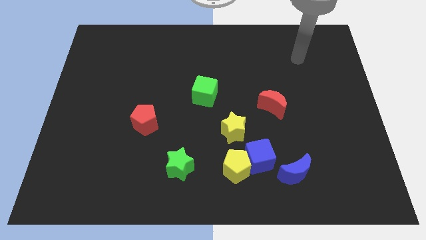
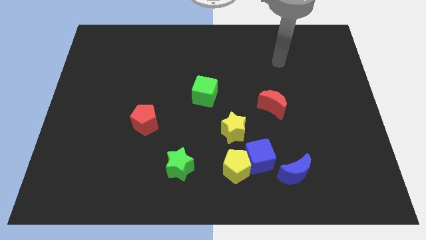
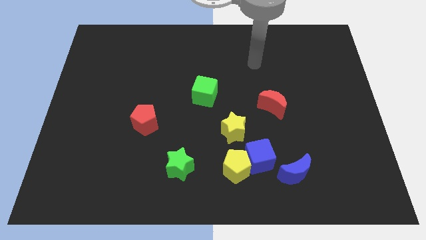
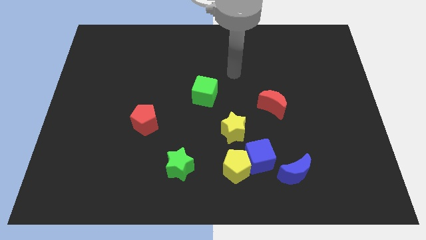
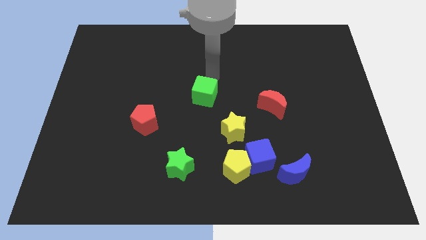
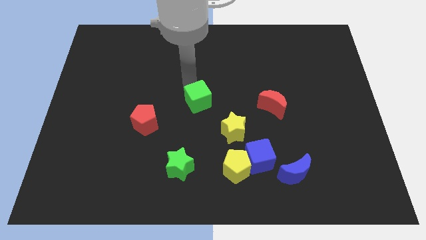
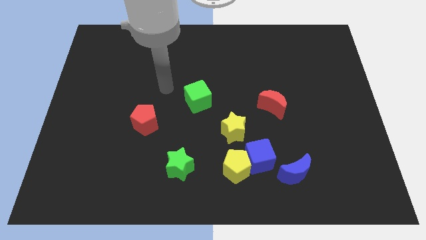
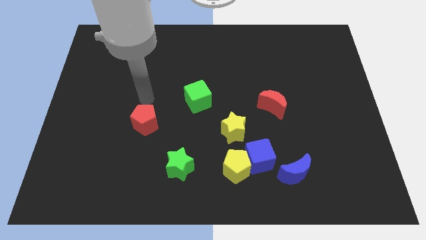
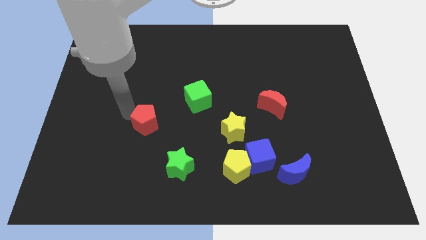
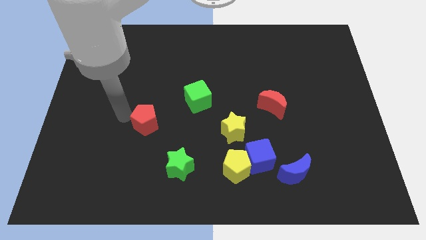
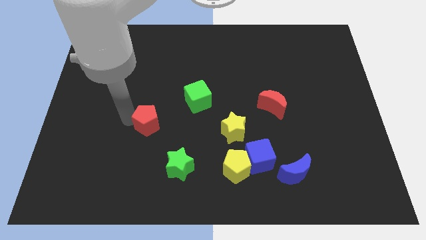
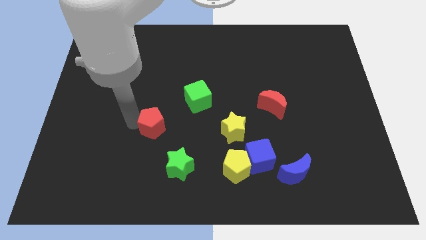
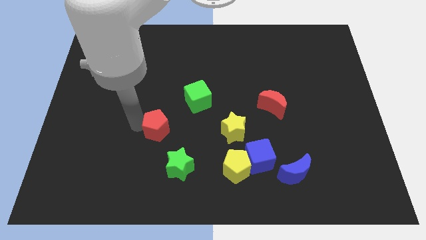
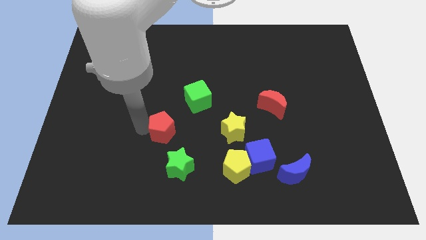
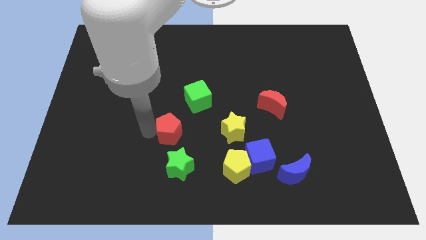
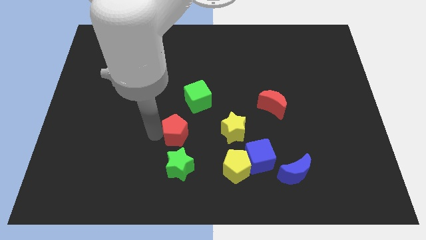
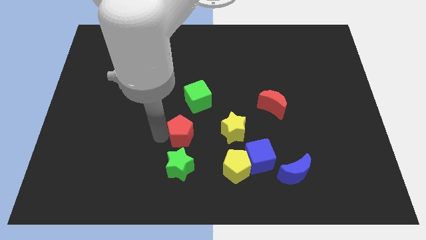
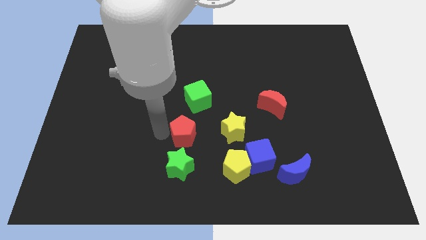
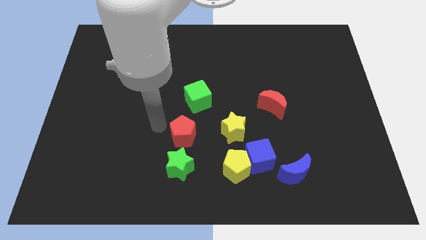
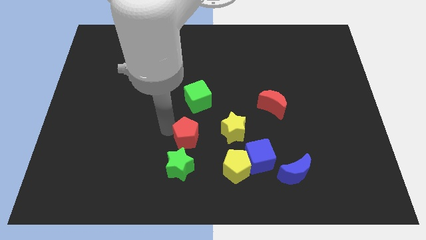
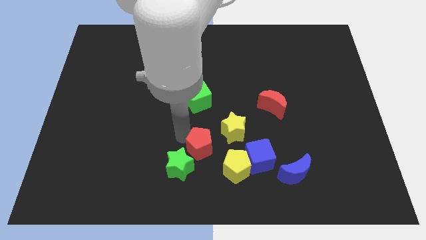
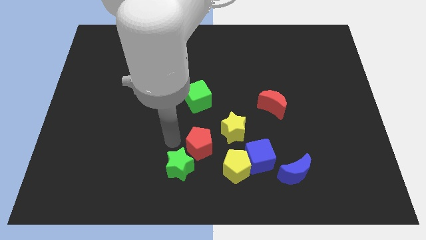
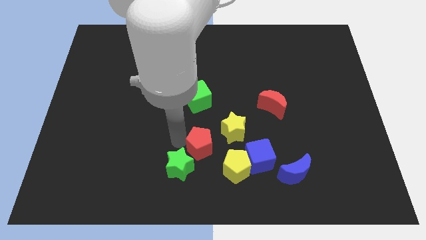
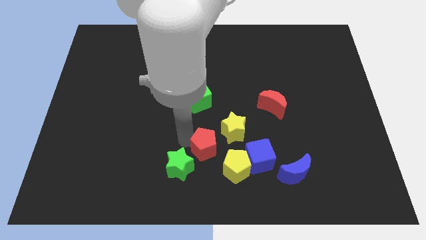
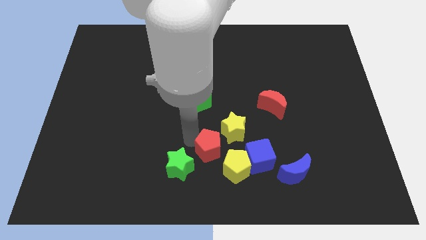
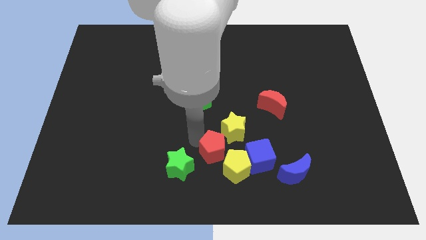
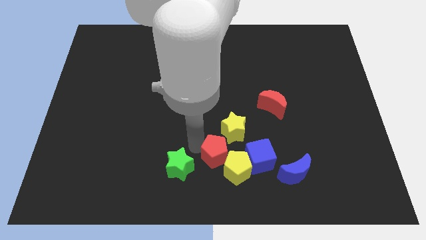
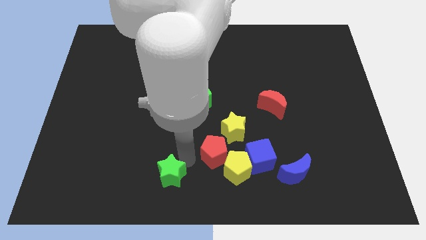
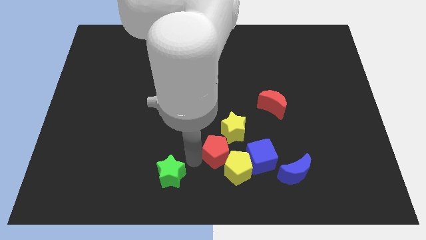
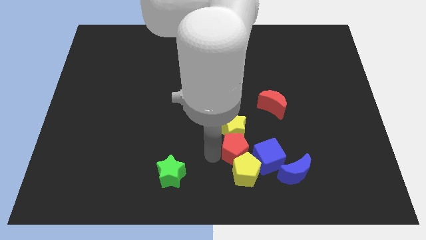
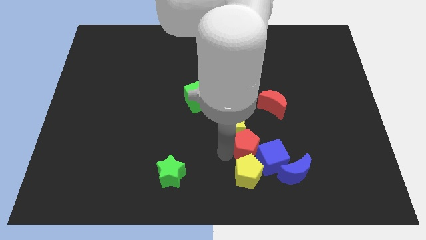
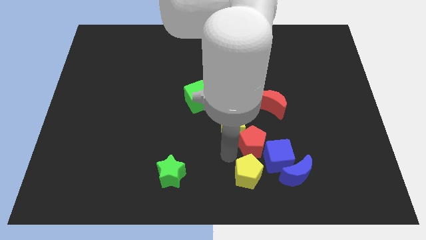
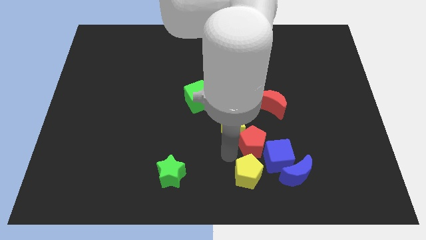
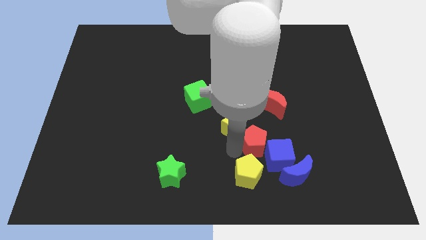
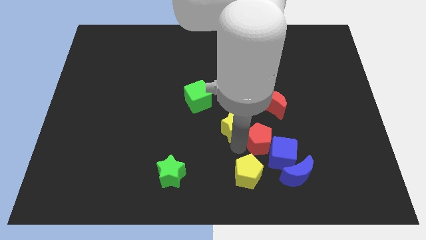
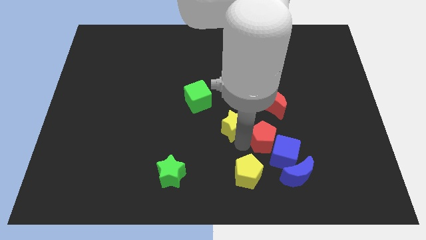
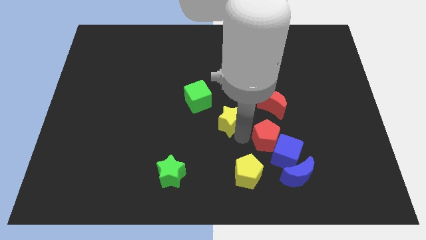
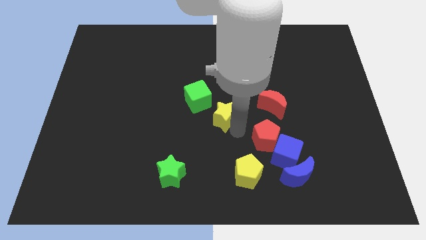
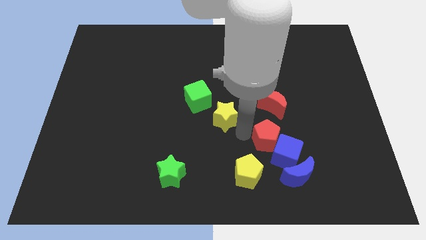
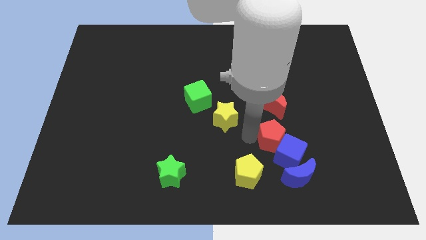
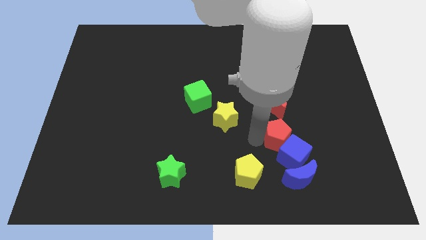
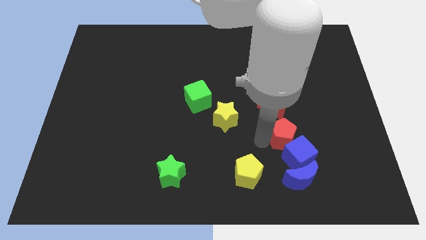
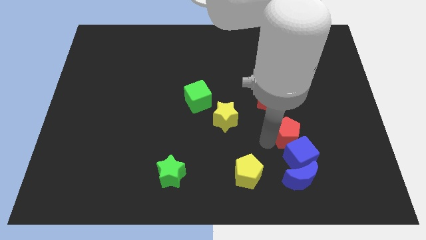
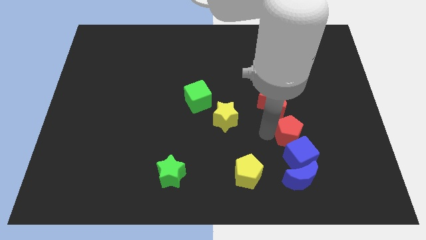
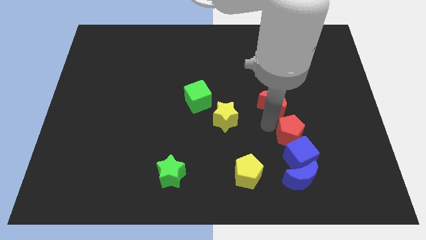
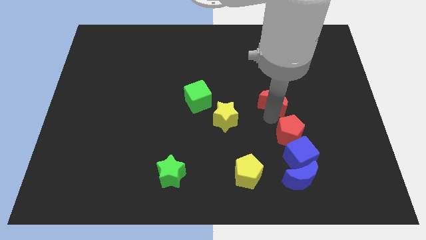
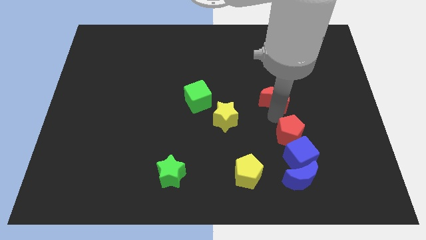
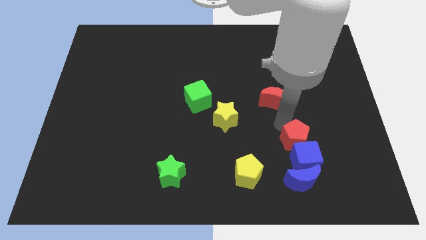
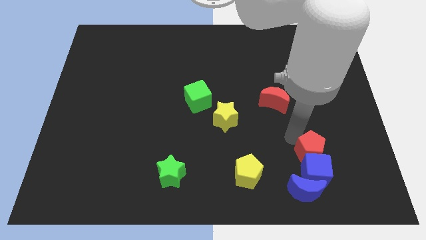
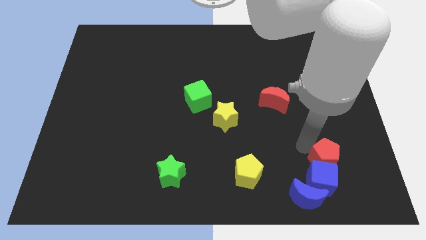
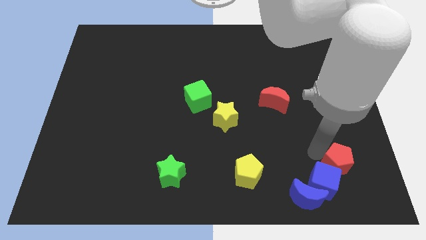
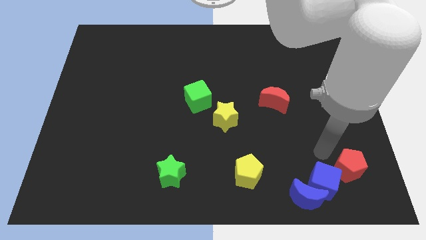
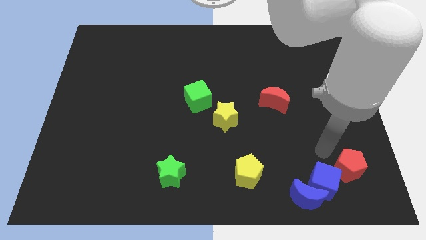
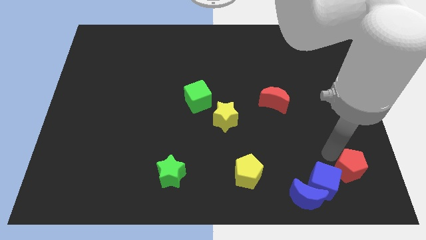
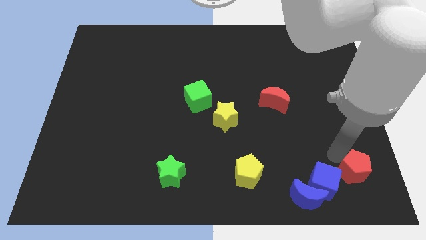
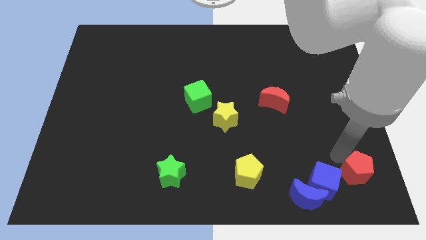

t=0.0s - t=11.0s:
move the red pentagon to the lower right corner
